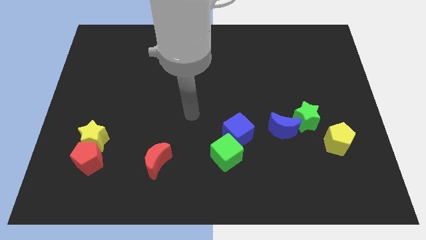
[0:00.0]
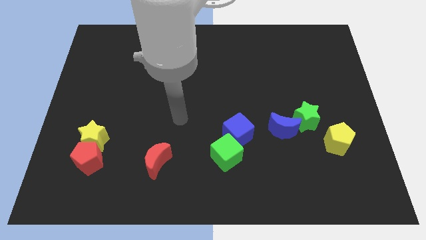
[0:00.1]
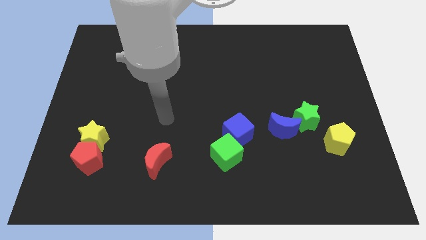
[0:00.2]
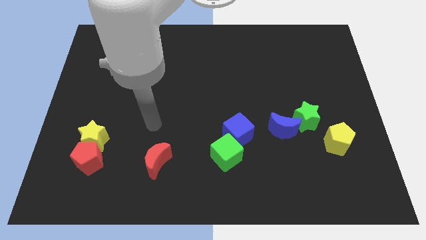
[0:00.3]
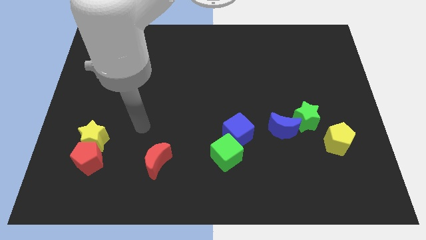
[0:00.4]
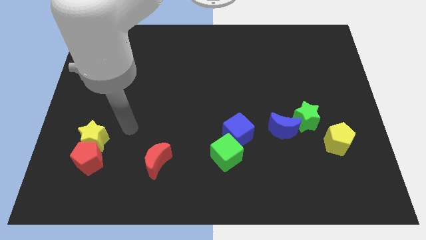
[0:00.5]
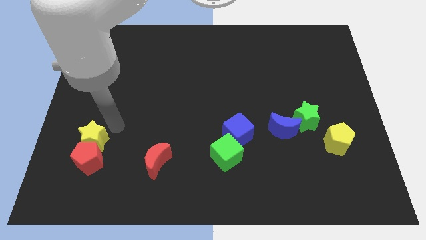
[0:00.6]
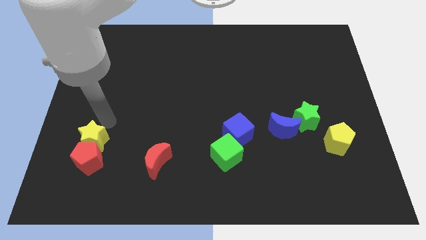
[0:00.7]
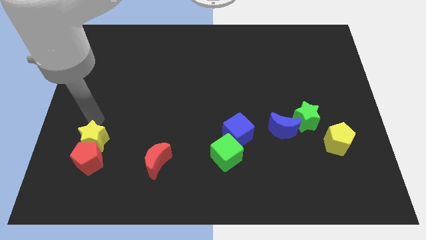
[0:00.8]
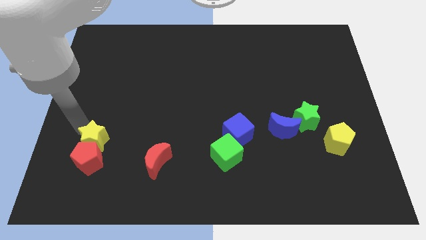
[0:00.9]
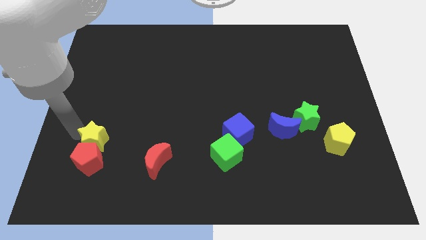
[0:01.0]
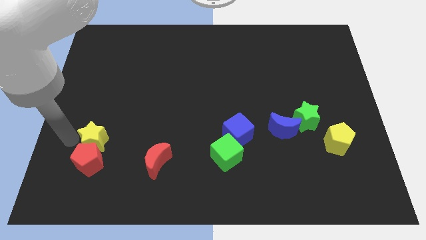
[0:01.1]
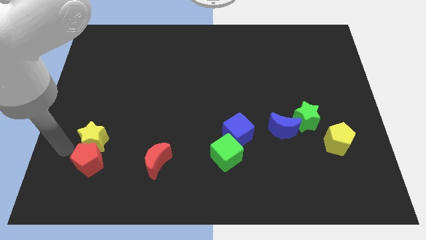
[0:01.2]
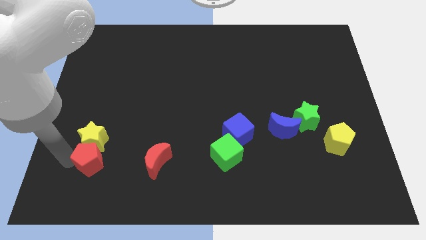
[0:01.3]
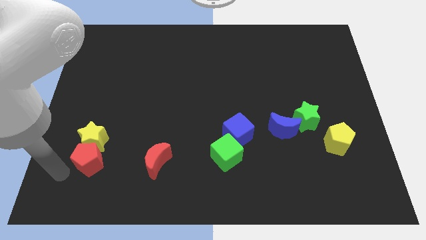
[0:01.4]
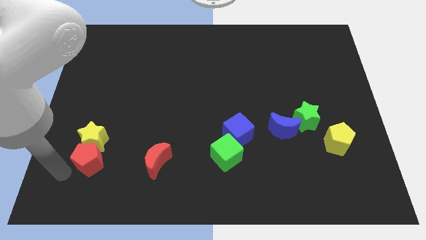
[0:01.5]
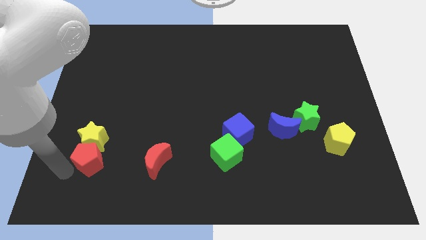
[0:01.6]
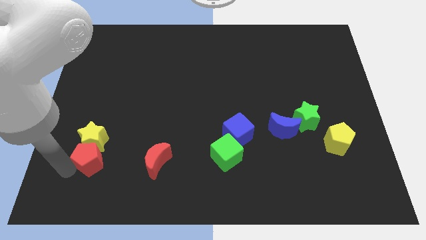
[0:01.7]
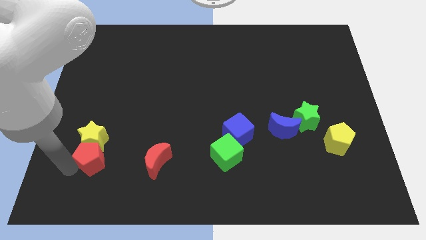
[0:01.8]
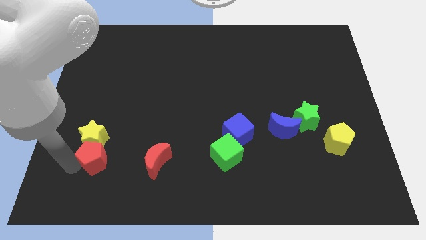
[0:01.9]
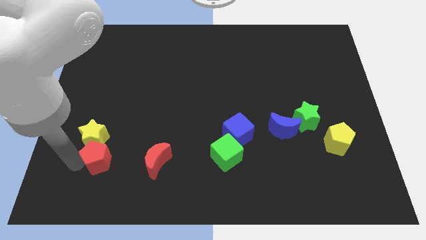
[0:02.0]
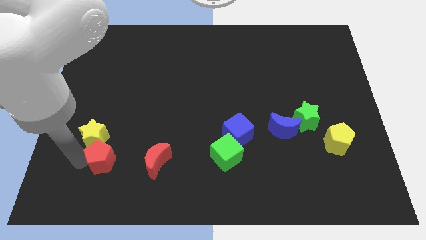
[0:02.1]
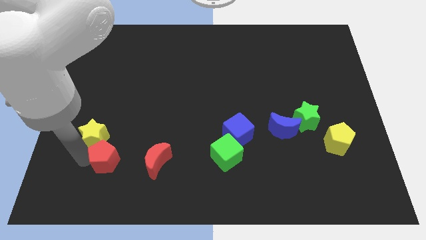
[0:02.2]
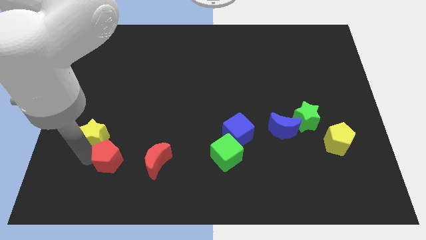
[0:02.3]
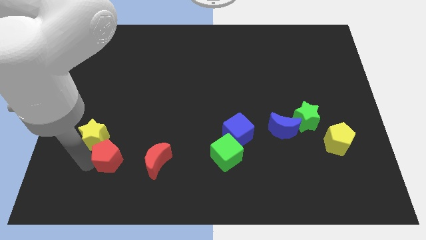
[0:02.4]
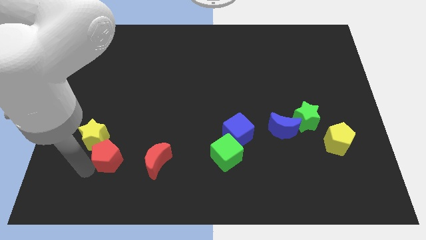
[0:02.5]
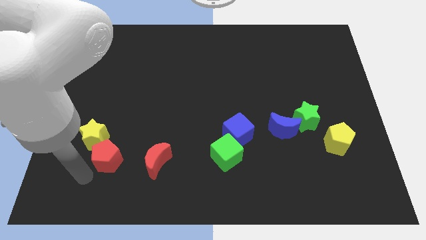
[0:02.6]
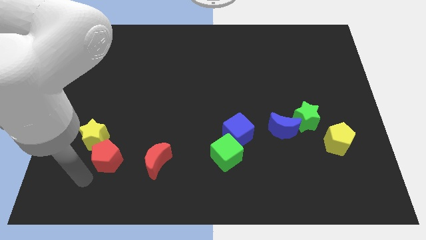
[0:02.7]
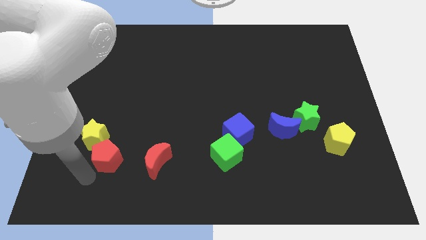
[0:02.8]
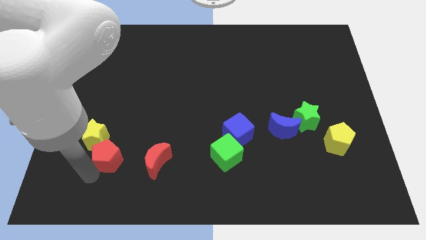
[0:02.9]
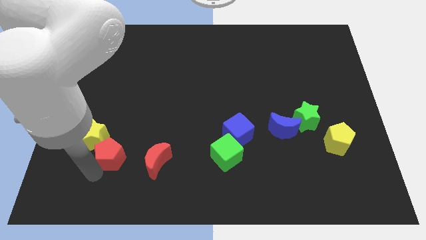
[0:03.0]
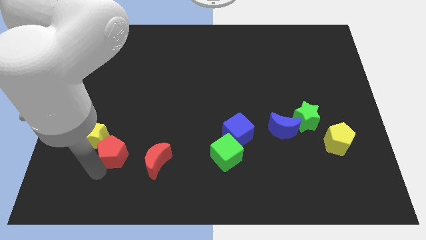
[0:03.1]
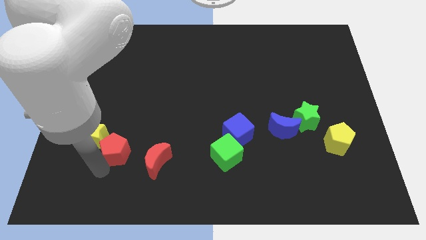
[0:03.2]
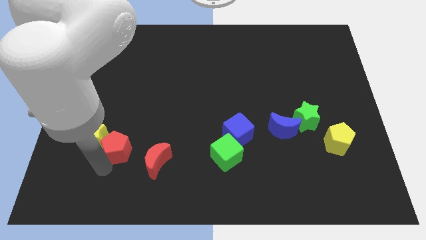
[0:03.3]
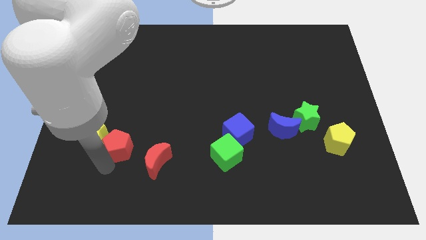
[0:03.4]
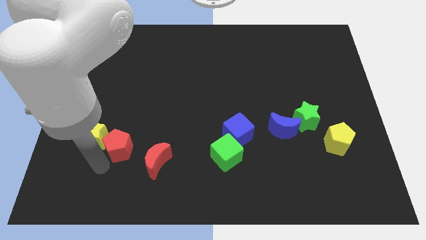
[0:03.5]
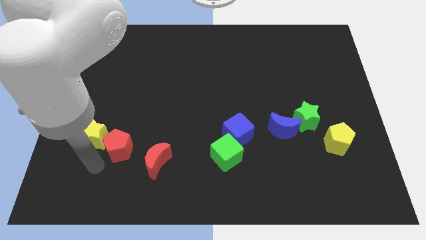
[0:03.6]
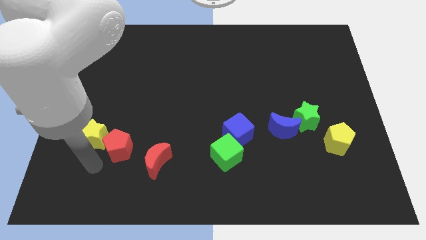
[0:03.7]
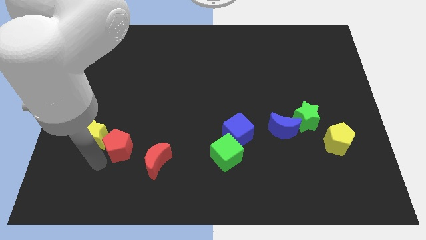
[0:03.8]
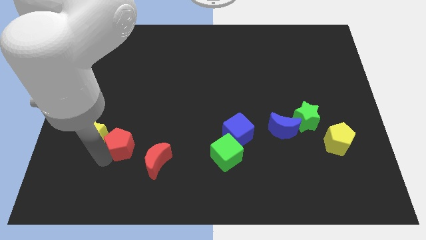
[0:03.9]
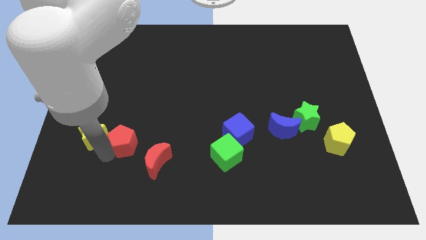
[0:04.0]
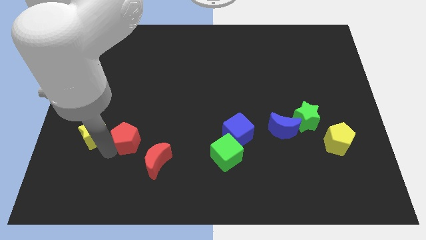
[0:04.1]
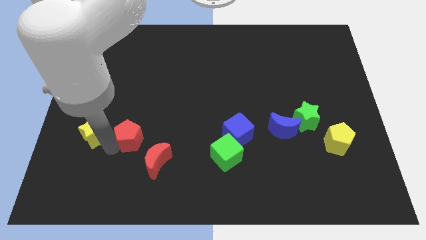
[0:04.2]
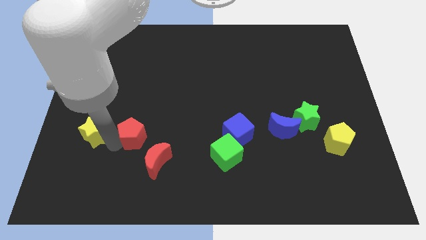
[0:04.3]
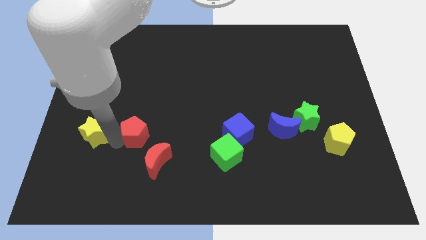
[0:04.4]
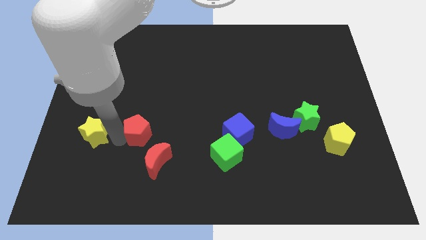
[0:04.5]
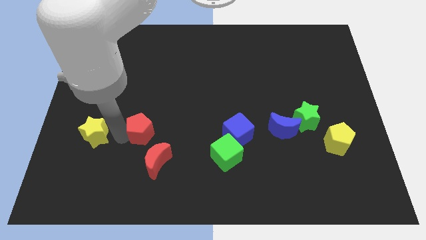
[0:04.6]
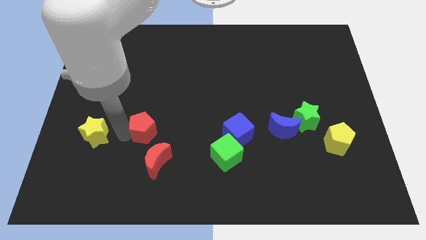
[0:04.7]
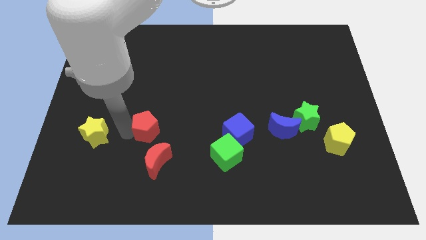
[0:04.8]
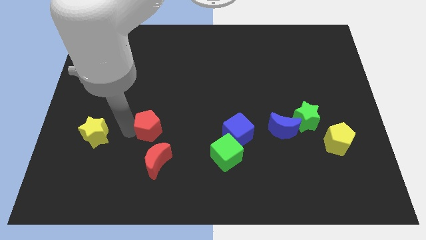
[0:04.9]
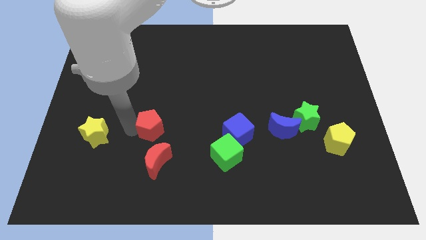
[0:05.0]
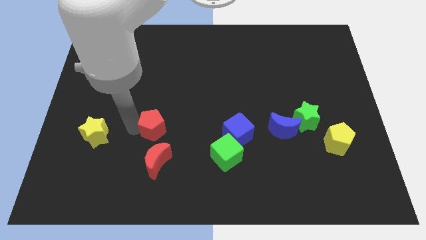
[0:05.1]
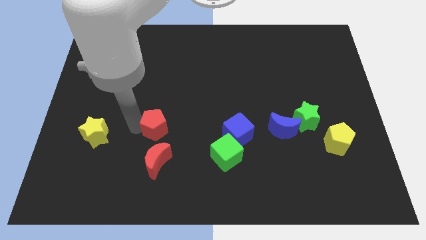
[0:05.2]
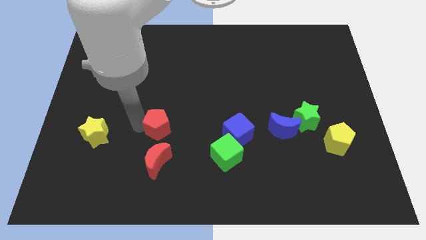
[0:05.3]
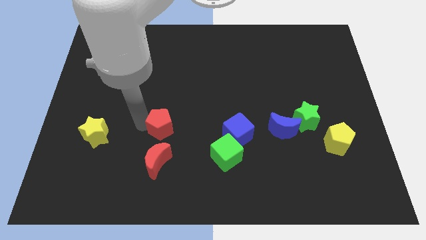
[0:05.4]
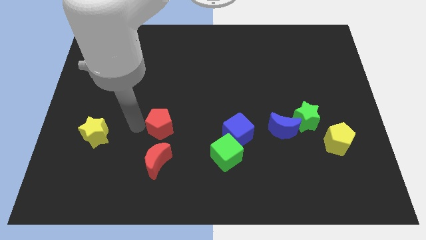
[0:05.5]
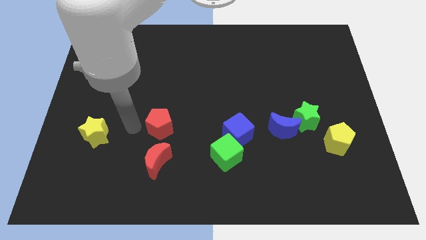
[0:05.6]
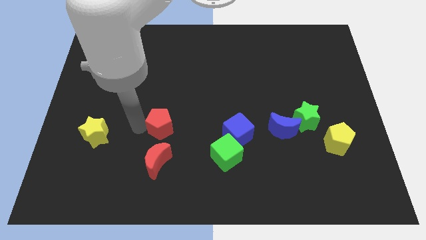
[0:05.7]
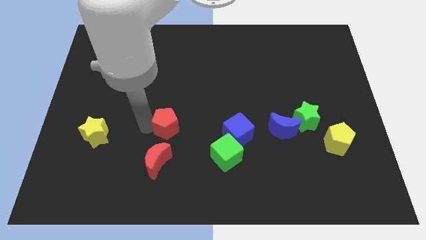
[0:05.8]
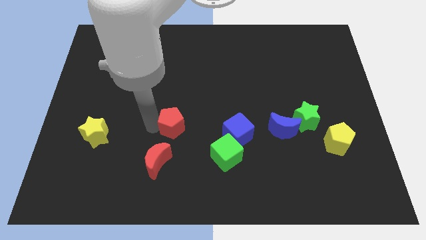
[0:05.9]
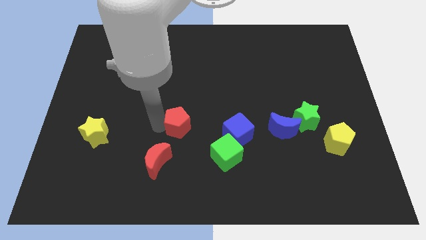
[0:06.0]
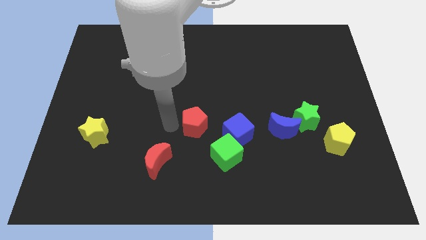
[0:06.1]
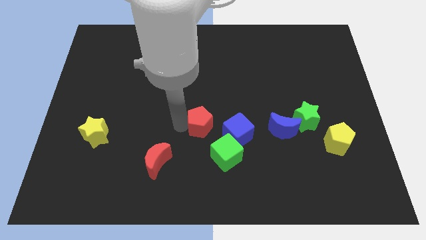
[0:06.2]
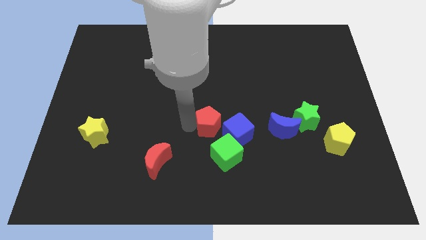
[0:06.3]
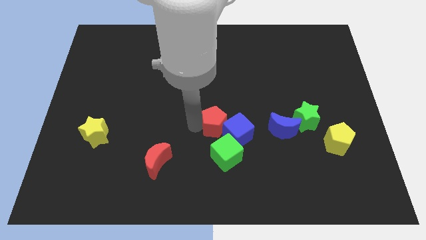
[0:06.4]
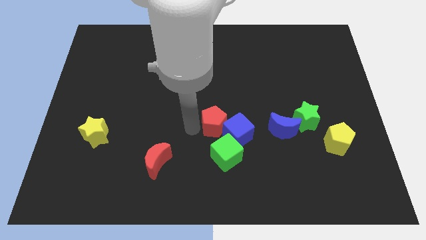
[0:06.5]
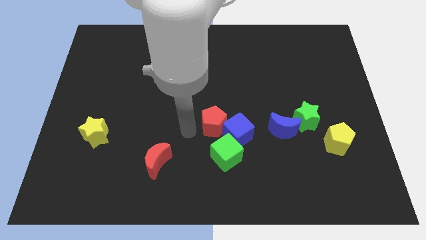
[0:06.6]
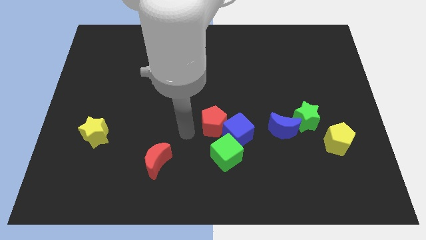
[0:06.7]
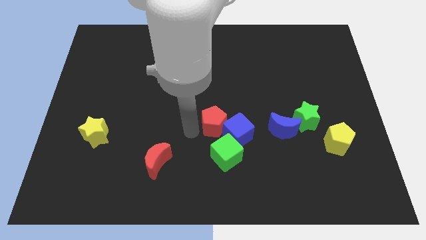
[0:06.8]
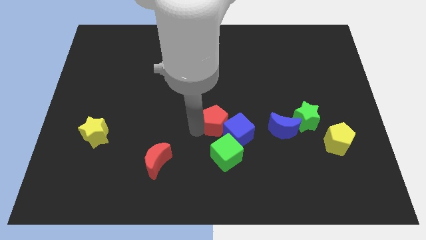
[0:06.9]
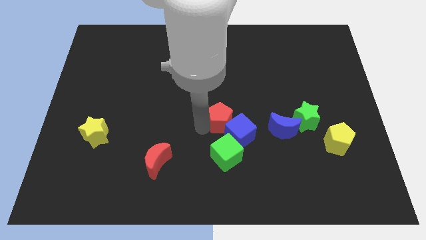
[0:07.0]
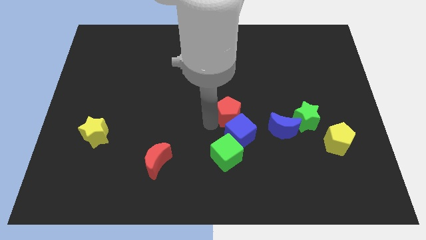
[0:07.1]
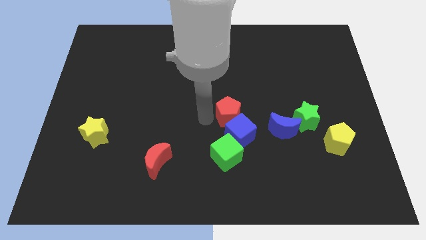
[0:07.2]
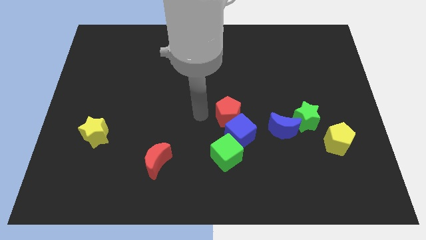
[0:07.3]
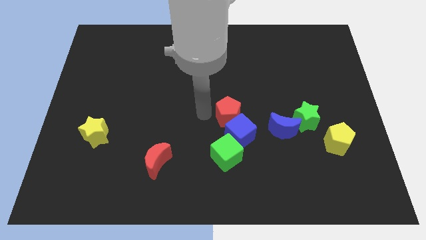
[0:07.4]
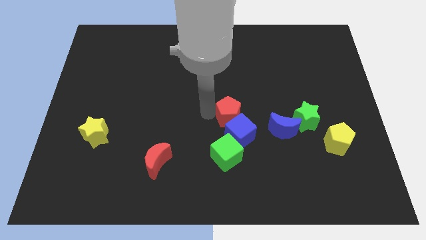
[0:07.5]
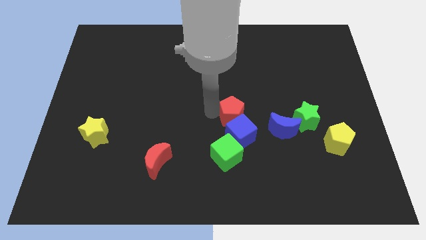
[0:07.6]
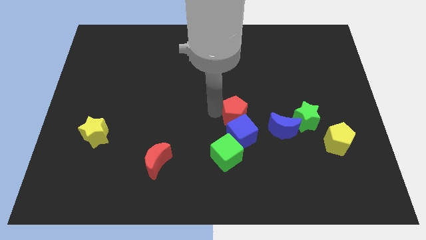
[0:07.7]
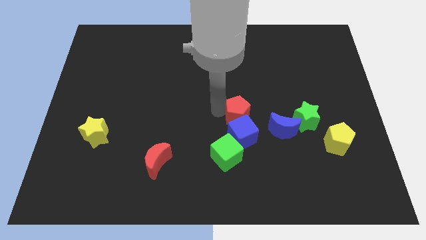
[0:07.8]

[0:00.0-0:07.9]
push the red pentagon diagonally up and to the right of the blue cube
